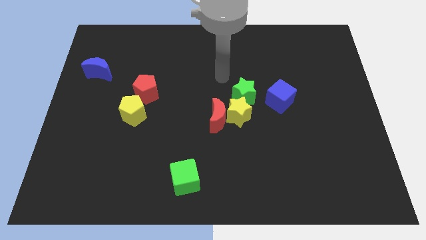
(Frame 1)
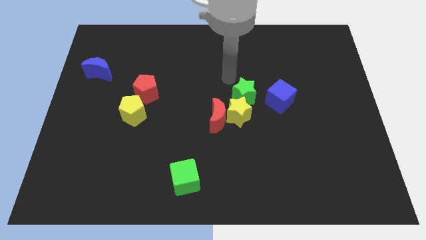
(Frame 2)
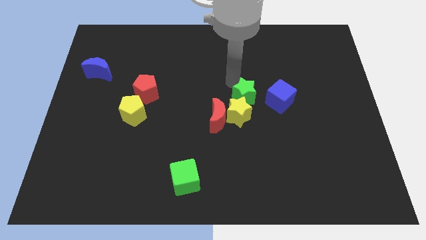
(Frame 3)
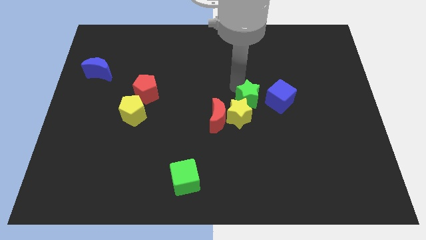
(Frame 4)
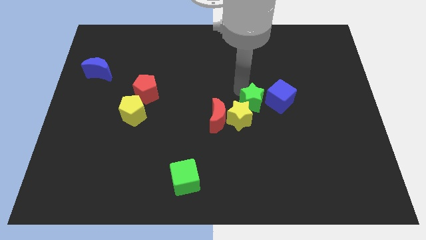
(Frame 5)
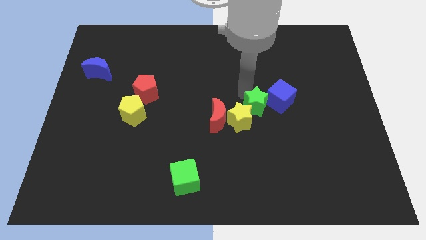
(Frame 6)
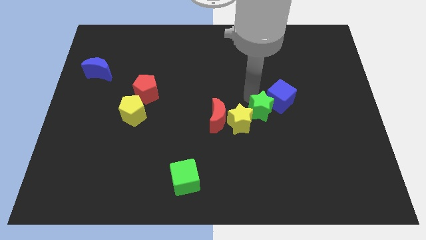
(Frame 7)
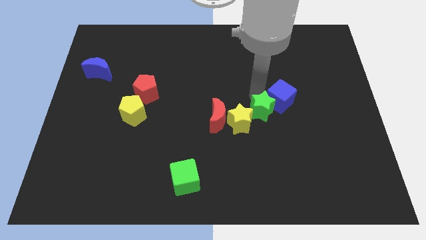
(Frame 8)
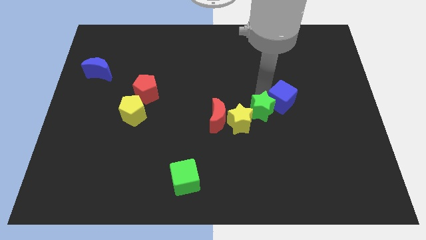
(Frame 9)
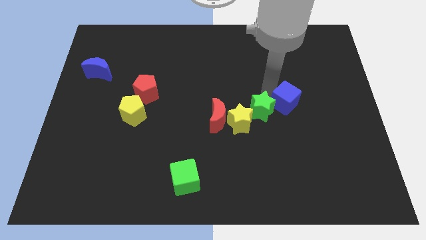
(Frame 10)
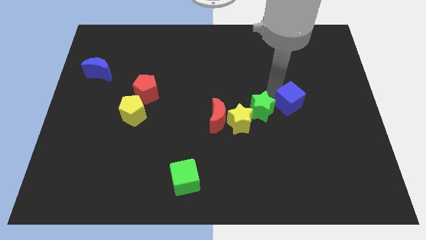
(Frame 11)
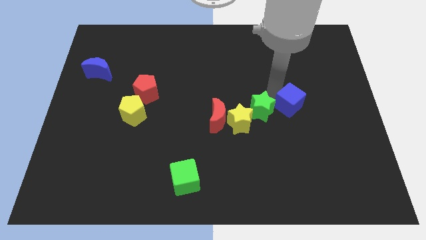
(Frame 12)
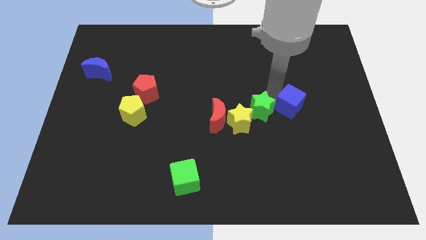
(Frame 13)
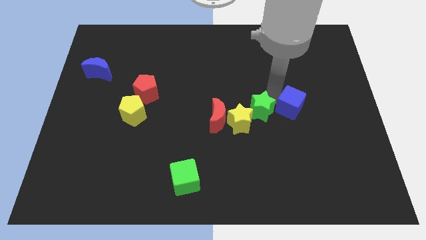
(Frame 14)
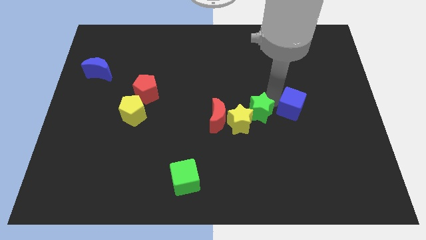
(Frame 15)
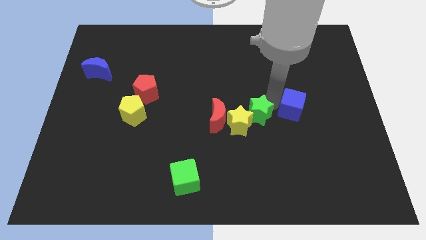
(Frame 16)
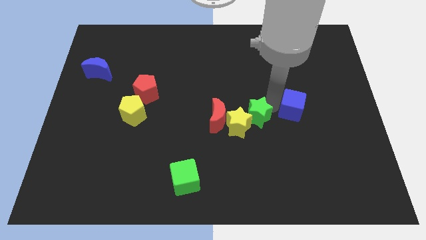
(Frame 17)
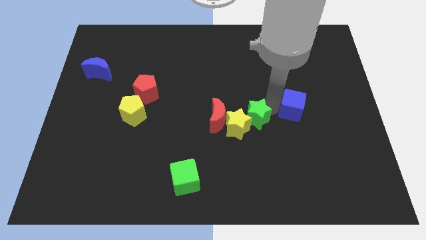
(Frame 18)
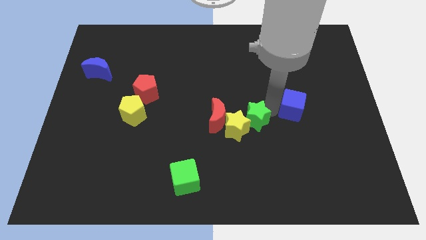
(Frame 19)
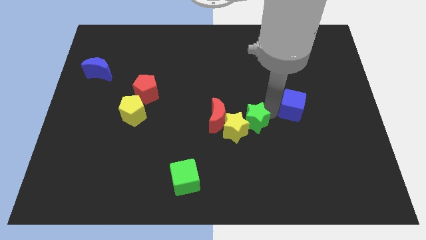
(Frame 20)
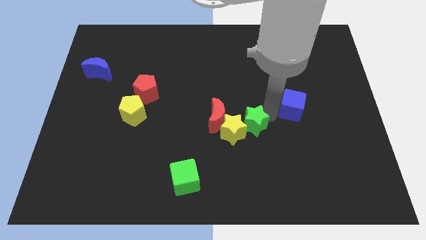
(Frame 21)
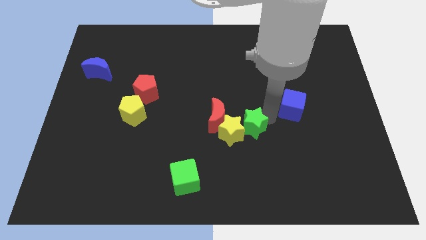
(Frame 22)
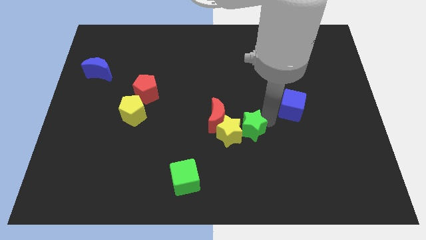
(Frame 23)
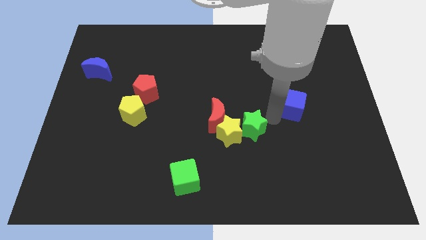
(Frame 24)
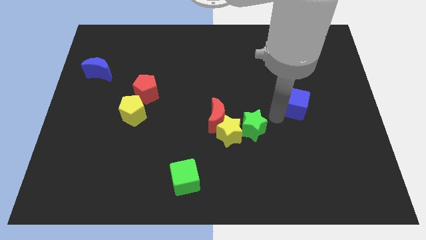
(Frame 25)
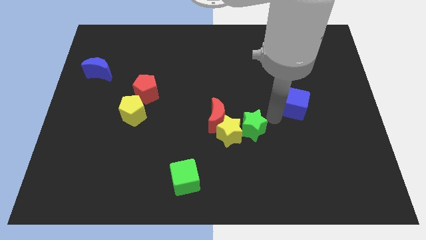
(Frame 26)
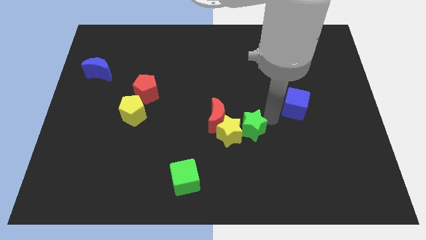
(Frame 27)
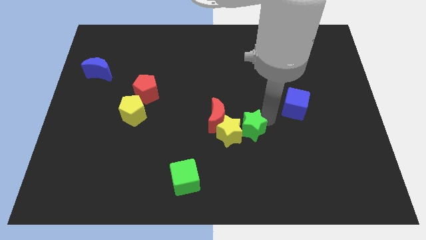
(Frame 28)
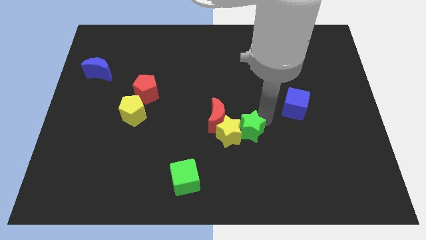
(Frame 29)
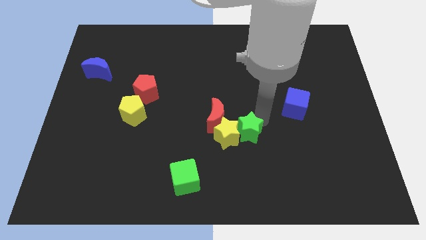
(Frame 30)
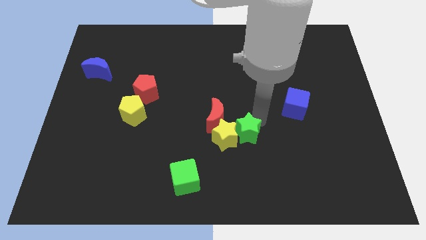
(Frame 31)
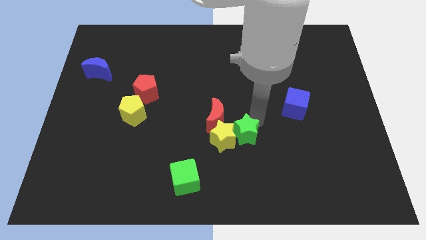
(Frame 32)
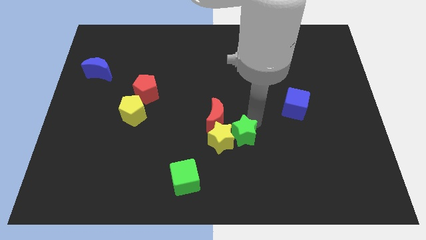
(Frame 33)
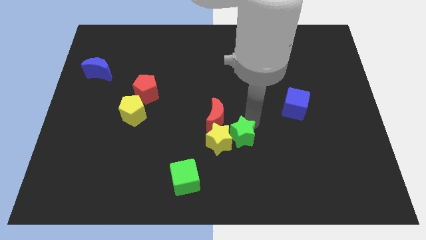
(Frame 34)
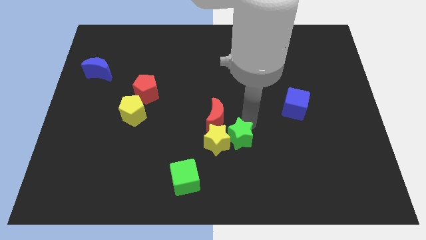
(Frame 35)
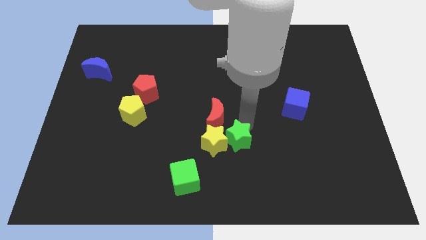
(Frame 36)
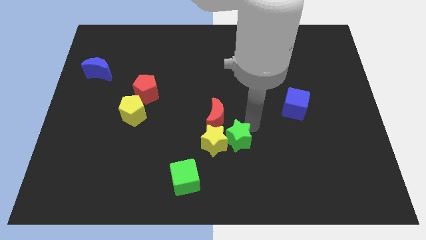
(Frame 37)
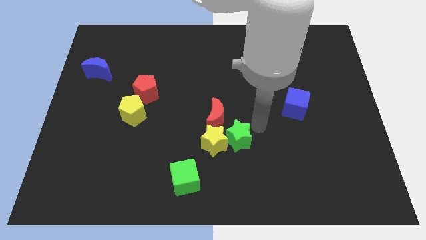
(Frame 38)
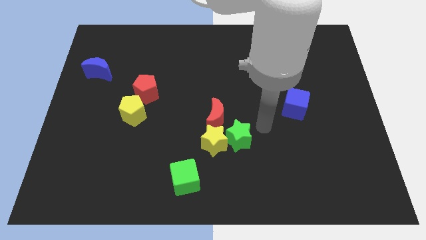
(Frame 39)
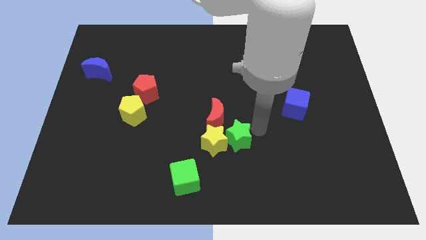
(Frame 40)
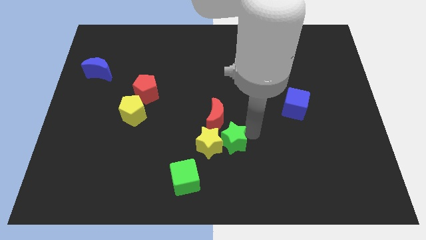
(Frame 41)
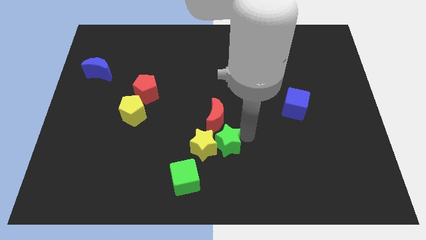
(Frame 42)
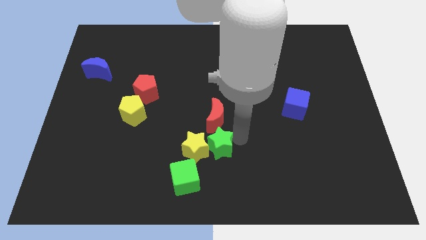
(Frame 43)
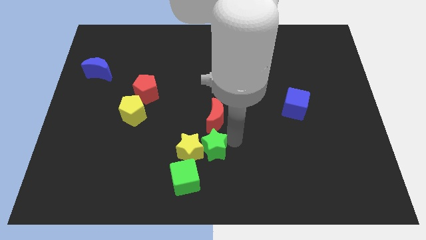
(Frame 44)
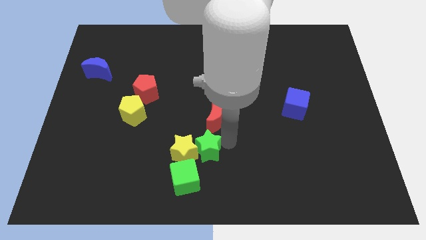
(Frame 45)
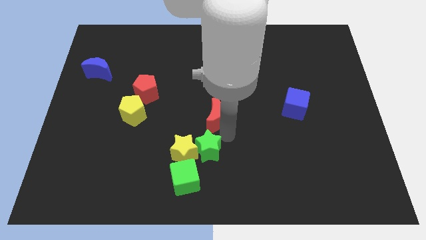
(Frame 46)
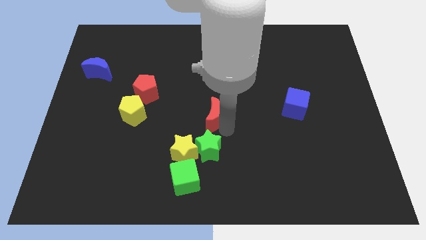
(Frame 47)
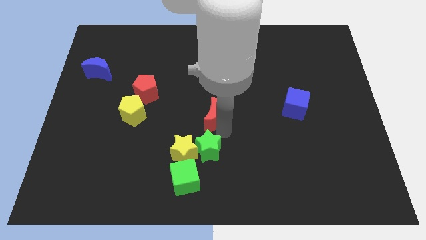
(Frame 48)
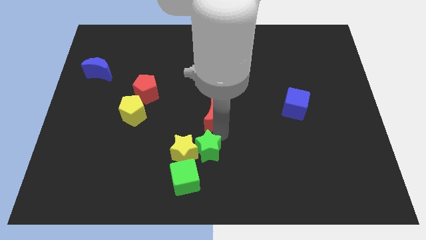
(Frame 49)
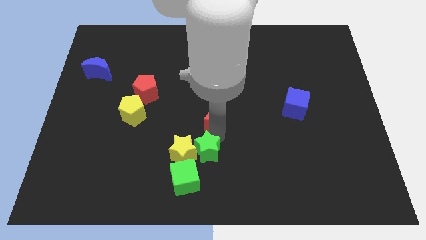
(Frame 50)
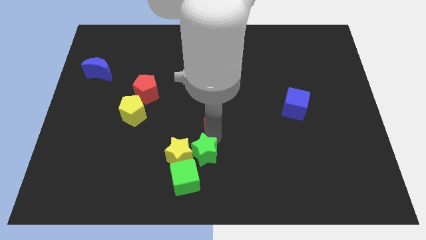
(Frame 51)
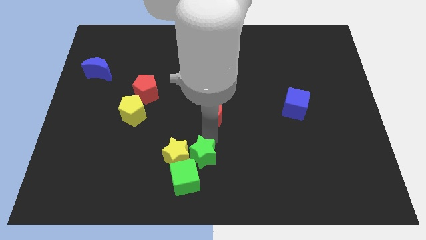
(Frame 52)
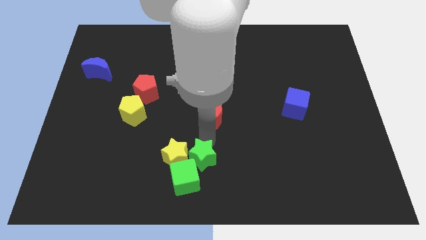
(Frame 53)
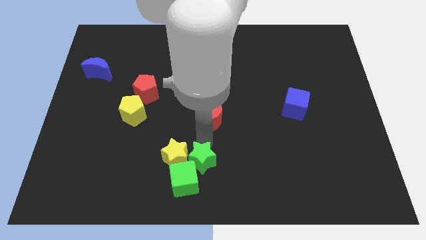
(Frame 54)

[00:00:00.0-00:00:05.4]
move the green star towards the green cube

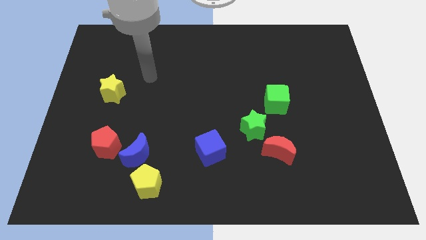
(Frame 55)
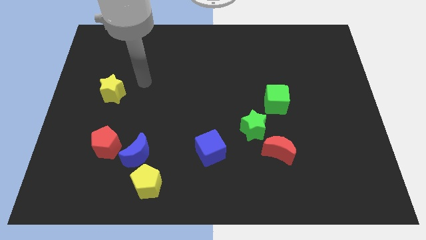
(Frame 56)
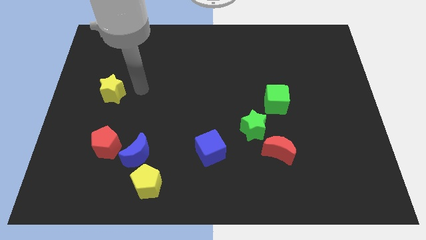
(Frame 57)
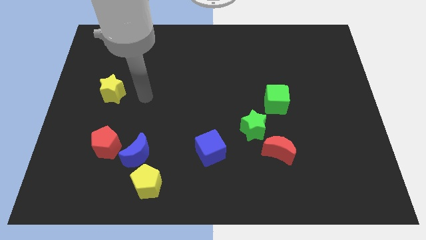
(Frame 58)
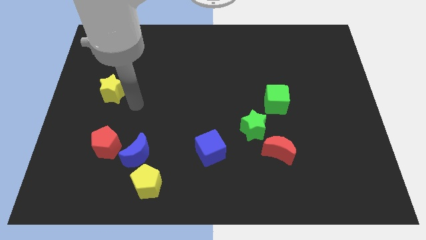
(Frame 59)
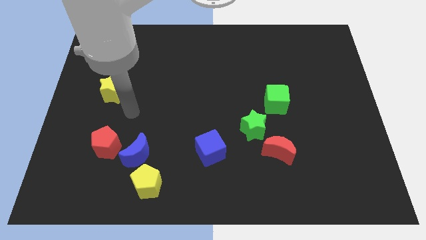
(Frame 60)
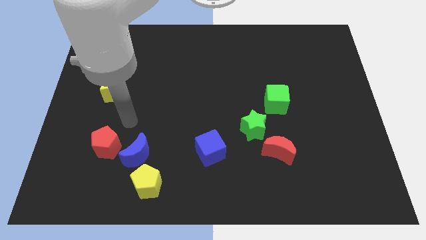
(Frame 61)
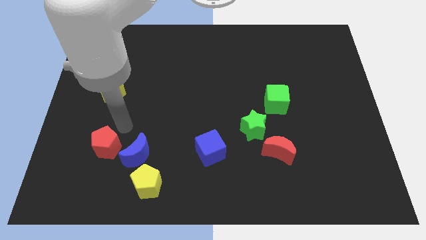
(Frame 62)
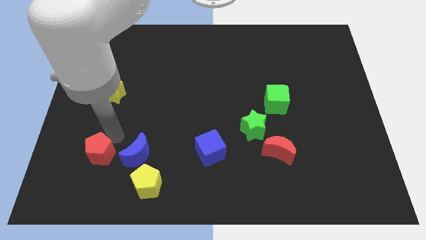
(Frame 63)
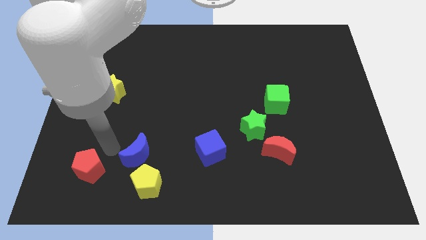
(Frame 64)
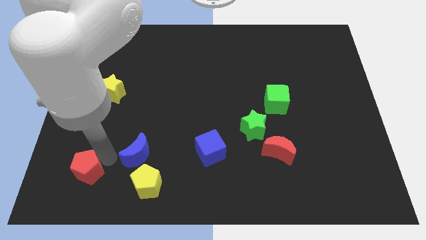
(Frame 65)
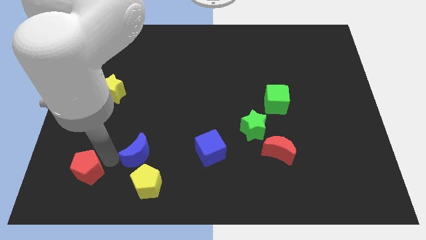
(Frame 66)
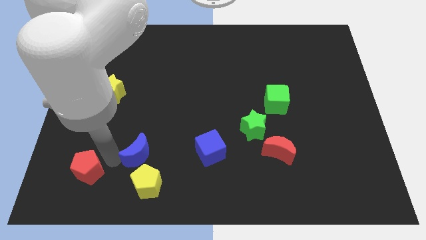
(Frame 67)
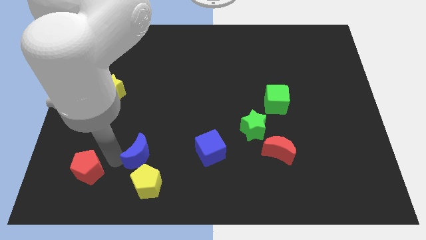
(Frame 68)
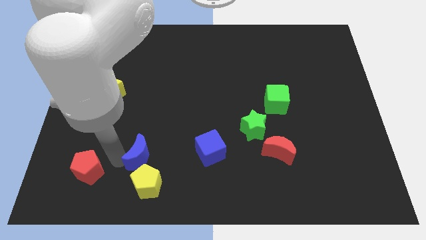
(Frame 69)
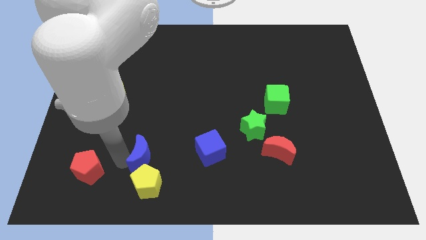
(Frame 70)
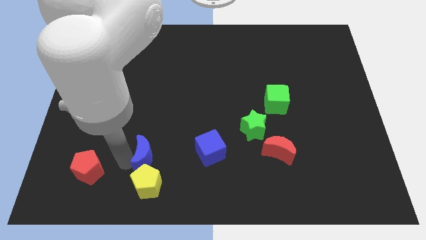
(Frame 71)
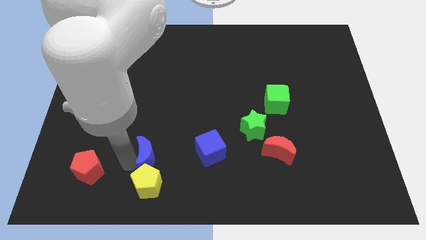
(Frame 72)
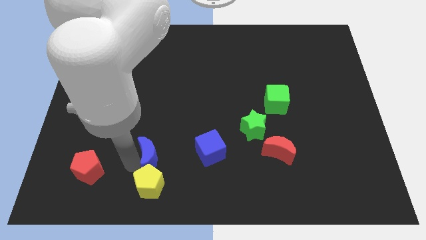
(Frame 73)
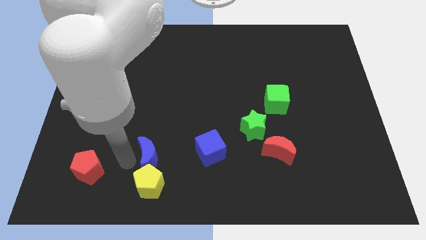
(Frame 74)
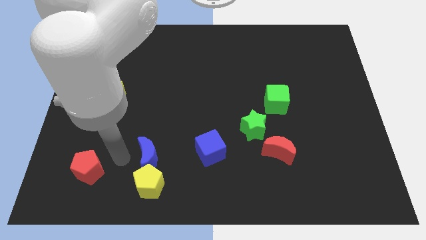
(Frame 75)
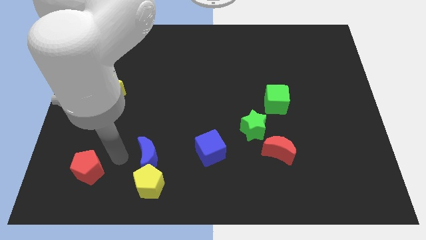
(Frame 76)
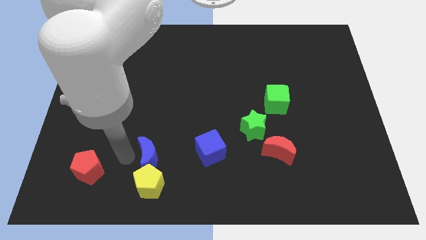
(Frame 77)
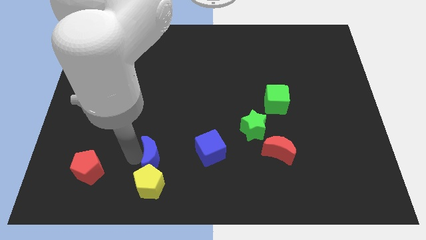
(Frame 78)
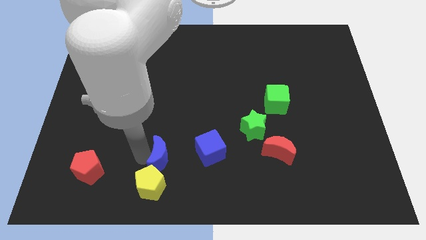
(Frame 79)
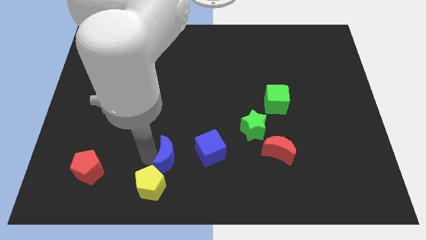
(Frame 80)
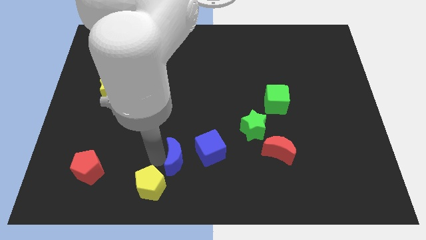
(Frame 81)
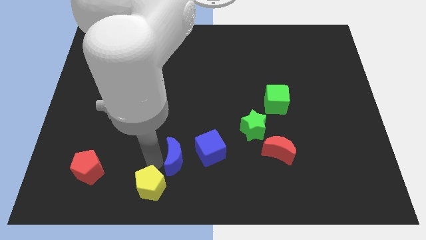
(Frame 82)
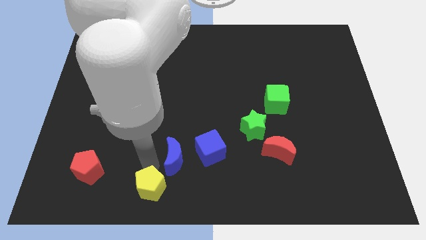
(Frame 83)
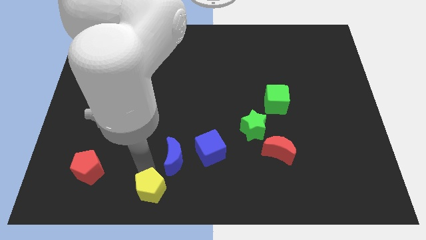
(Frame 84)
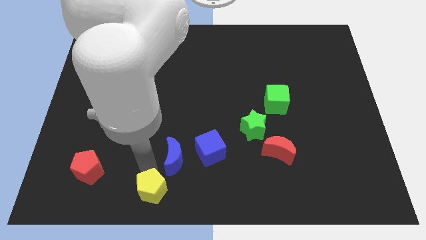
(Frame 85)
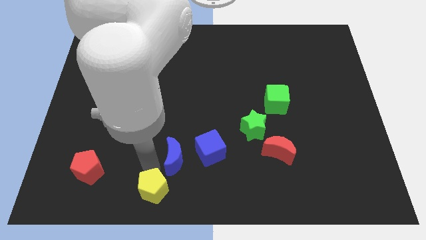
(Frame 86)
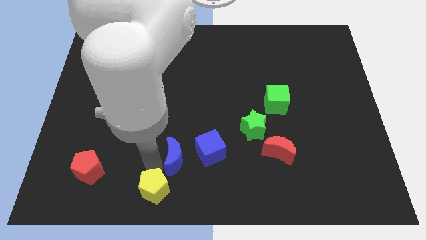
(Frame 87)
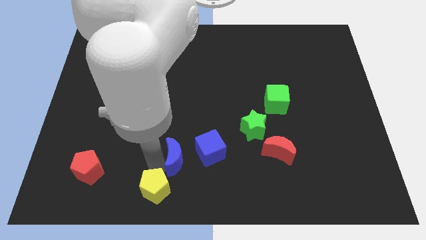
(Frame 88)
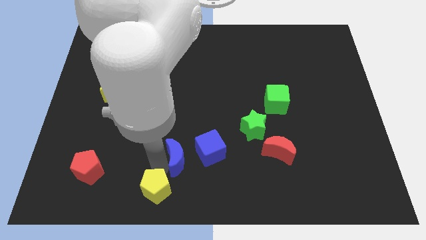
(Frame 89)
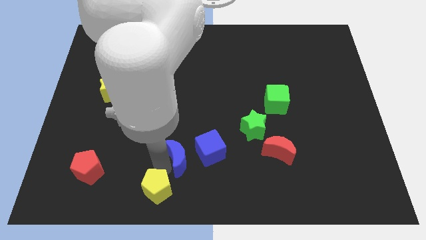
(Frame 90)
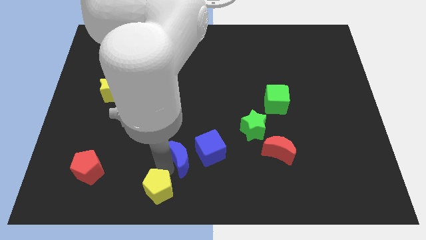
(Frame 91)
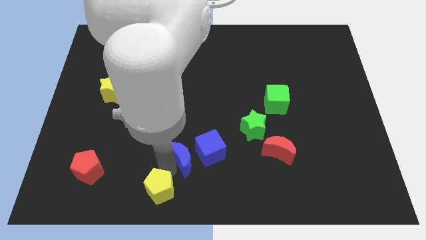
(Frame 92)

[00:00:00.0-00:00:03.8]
move the blue moon to the blue cube
